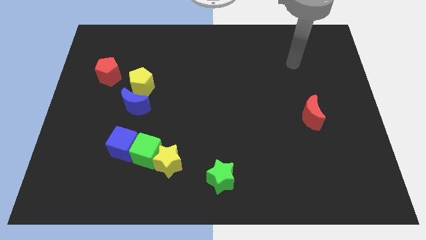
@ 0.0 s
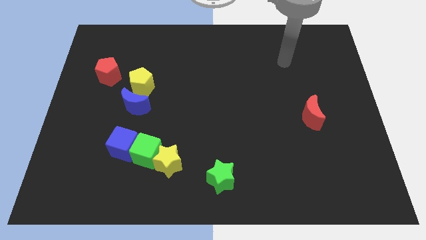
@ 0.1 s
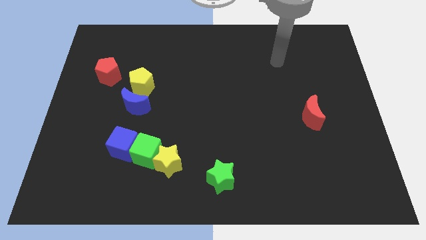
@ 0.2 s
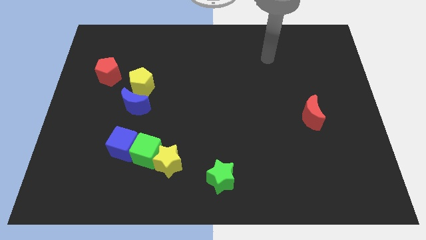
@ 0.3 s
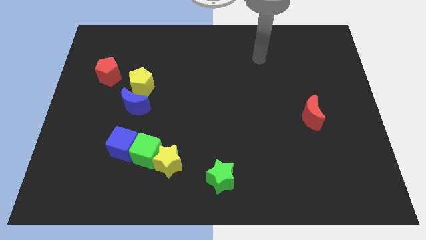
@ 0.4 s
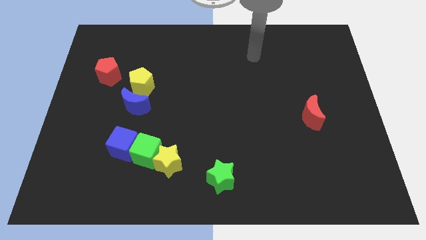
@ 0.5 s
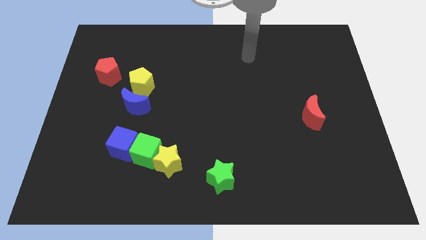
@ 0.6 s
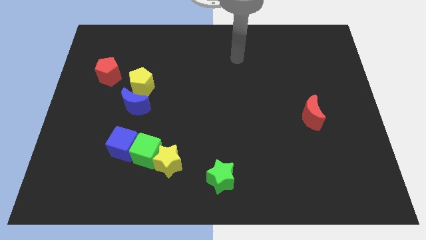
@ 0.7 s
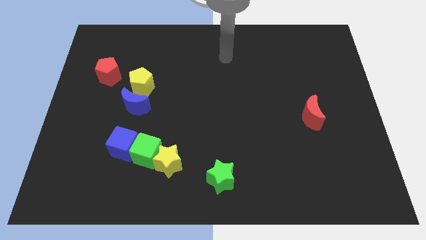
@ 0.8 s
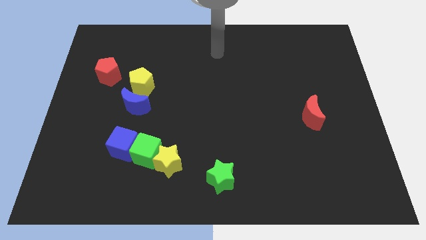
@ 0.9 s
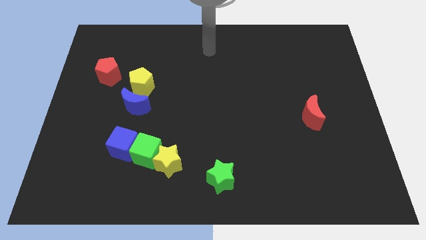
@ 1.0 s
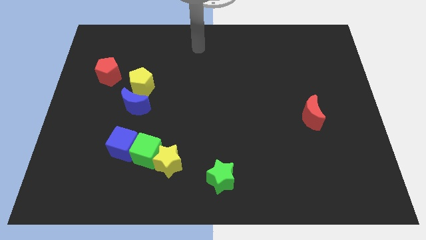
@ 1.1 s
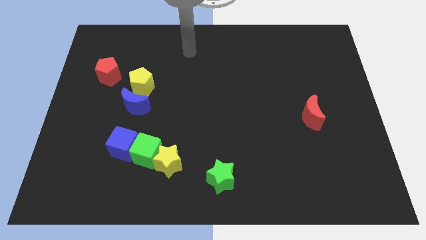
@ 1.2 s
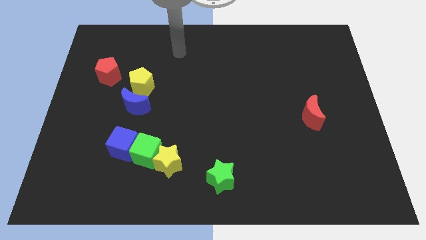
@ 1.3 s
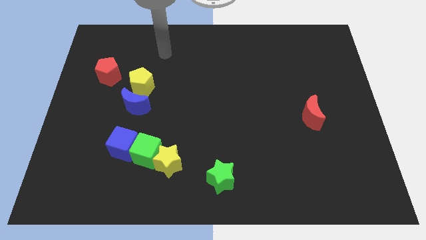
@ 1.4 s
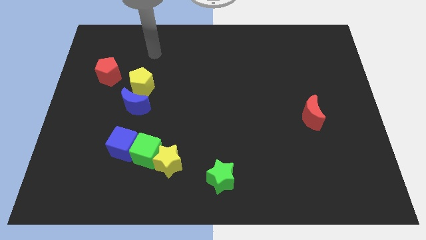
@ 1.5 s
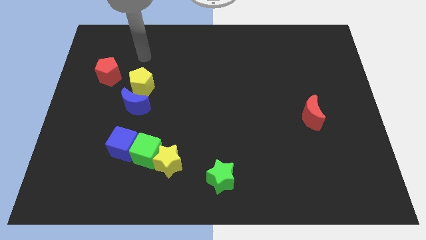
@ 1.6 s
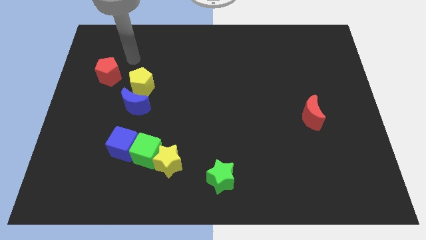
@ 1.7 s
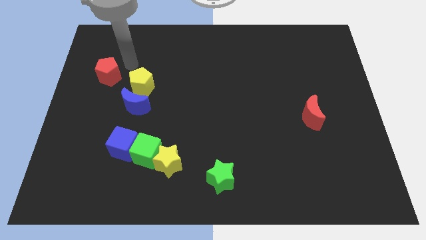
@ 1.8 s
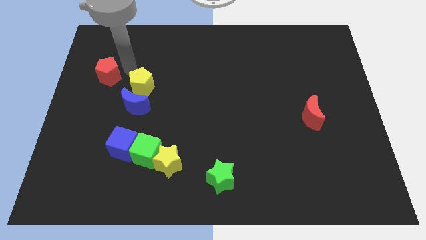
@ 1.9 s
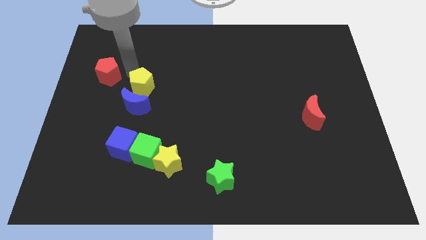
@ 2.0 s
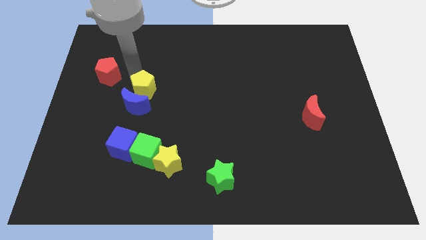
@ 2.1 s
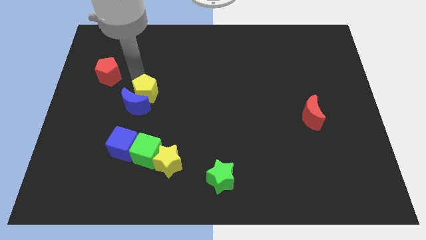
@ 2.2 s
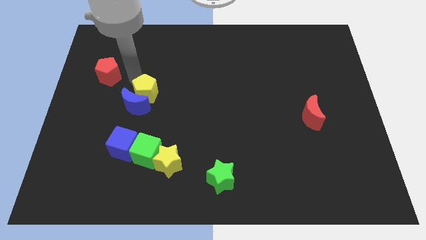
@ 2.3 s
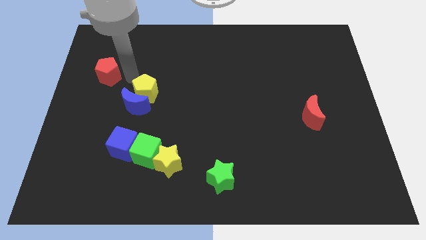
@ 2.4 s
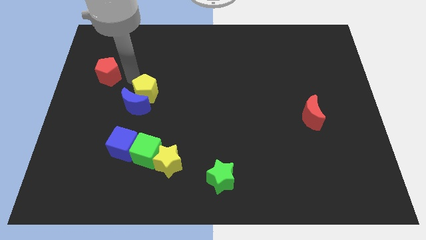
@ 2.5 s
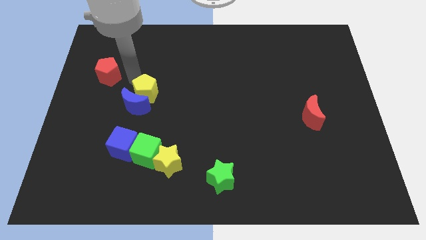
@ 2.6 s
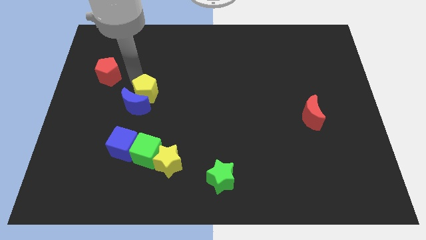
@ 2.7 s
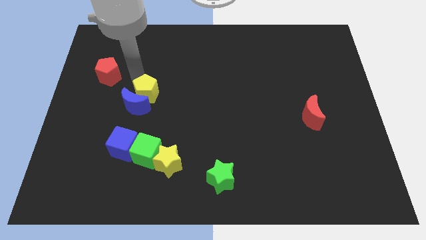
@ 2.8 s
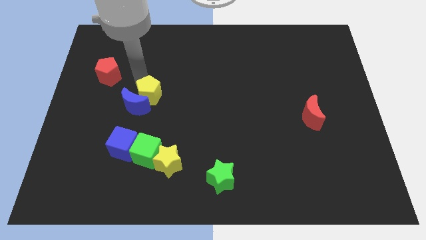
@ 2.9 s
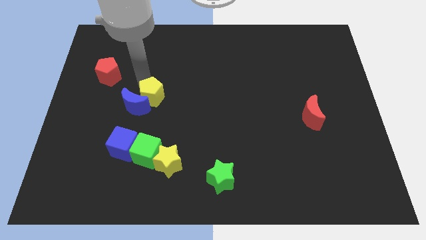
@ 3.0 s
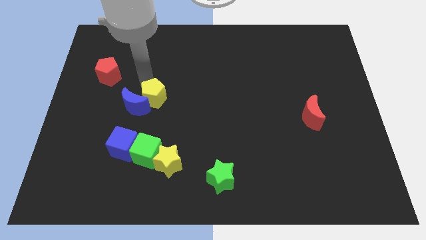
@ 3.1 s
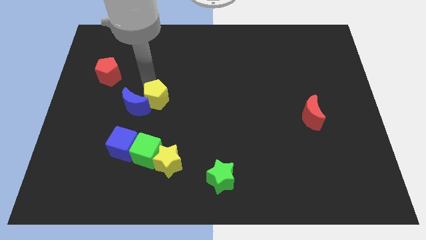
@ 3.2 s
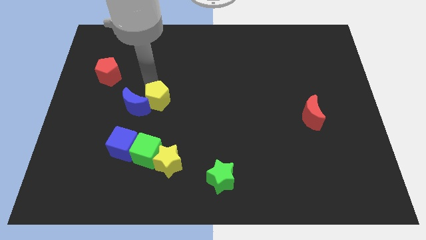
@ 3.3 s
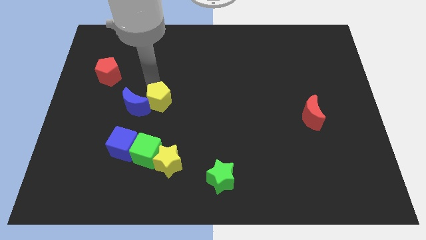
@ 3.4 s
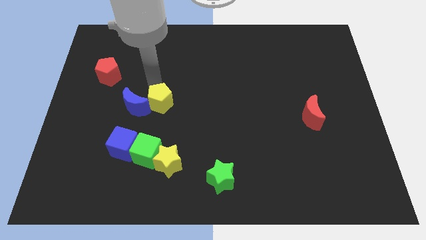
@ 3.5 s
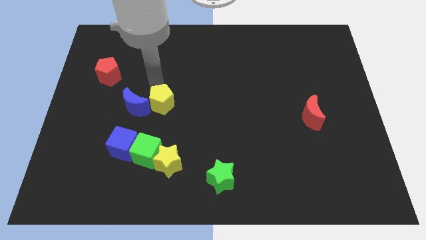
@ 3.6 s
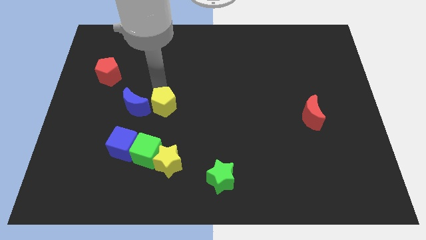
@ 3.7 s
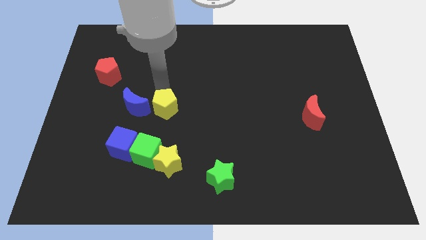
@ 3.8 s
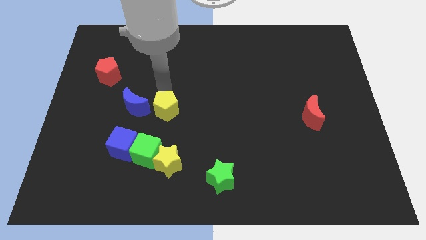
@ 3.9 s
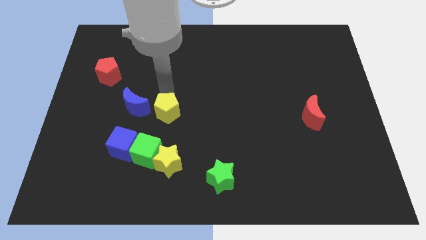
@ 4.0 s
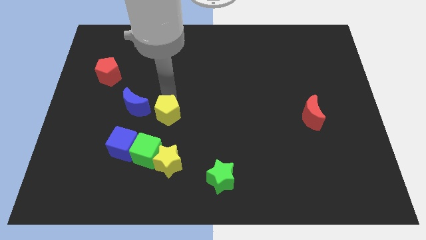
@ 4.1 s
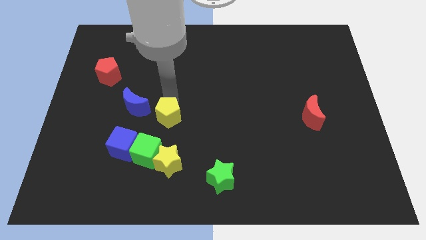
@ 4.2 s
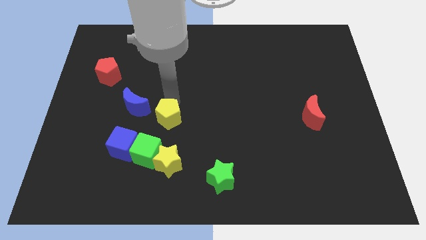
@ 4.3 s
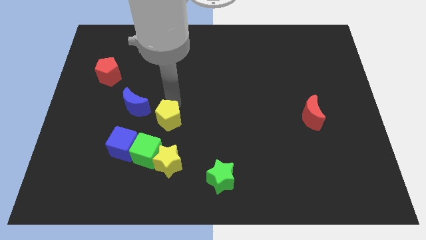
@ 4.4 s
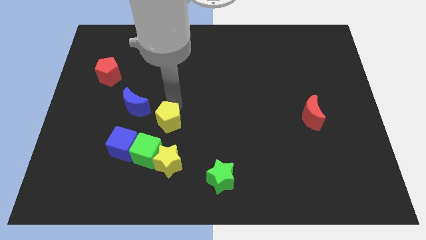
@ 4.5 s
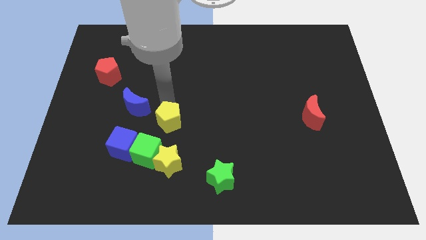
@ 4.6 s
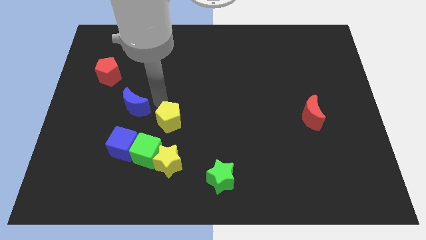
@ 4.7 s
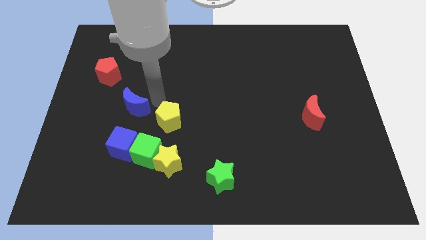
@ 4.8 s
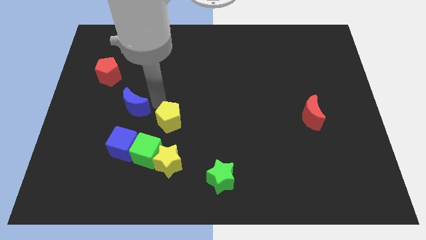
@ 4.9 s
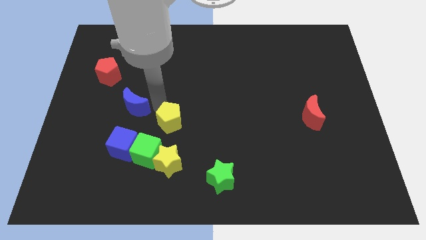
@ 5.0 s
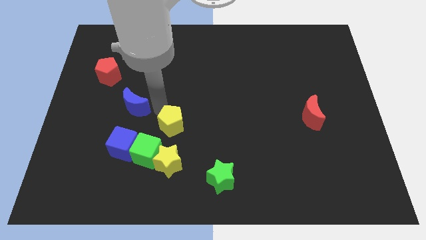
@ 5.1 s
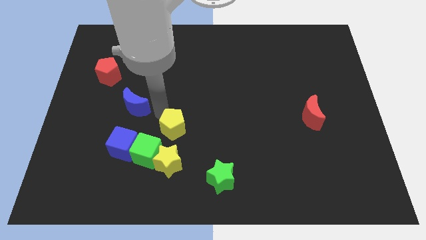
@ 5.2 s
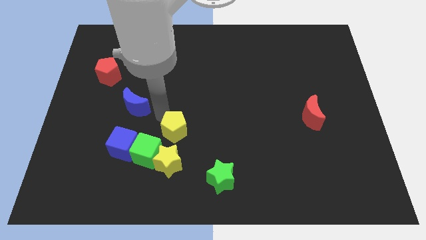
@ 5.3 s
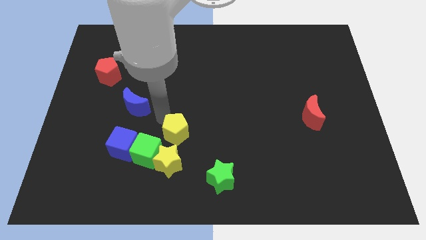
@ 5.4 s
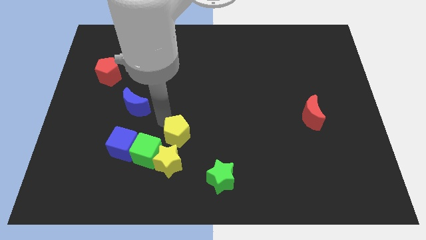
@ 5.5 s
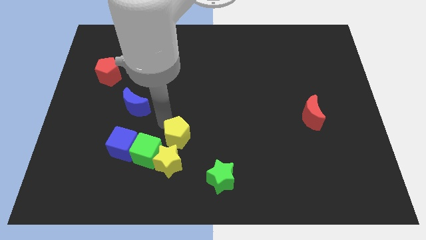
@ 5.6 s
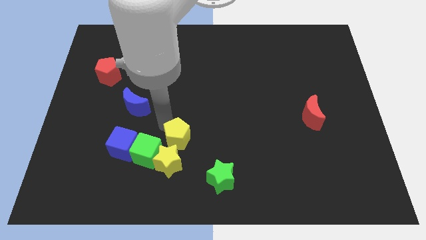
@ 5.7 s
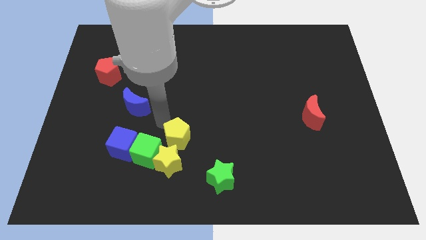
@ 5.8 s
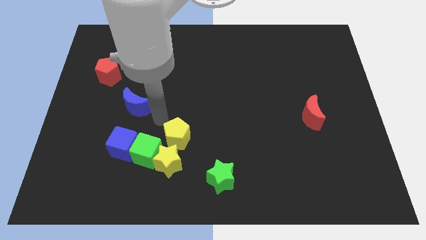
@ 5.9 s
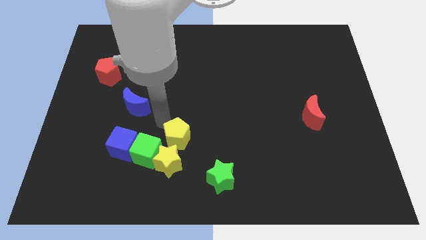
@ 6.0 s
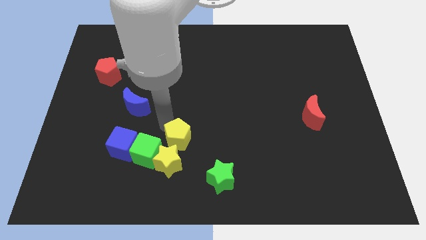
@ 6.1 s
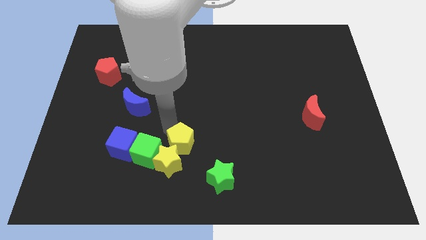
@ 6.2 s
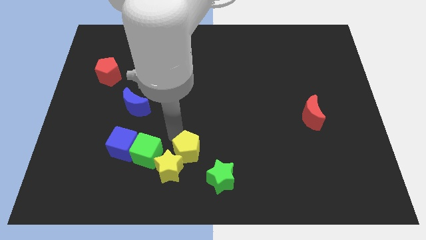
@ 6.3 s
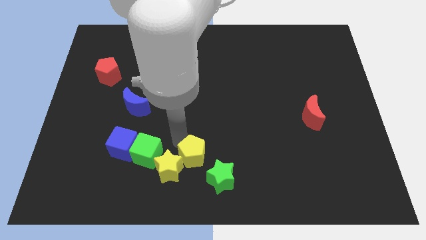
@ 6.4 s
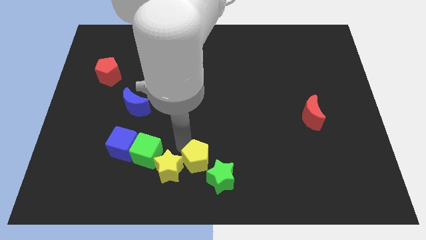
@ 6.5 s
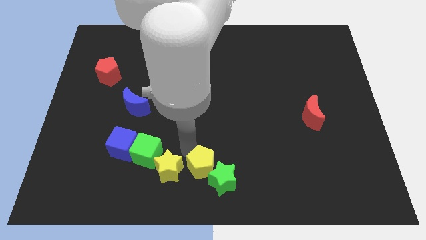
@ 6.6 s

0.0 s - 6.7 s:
move the yellow pentagon to the green star

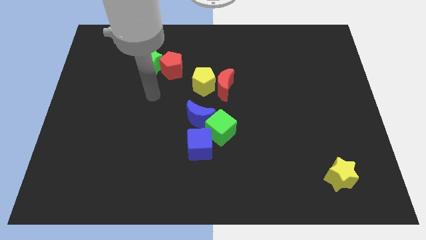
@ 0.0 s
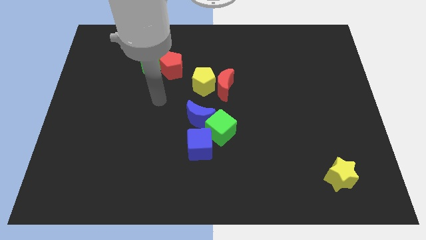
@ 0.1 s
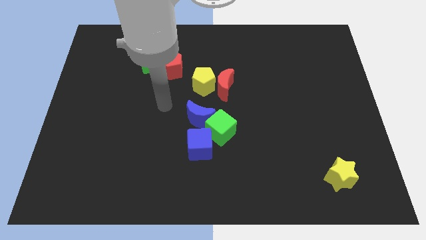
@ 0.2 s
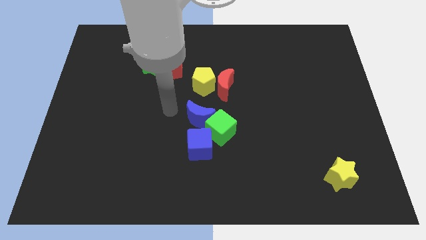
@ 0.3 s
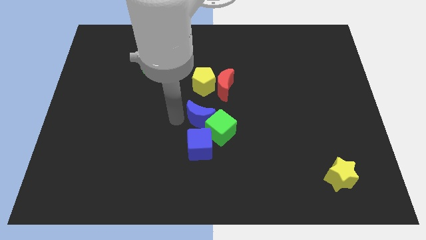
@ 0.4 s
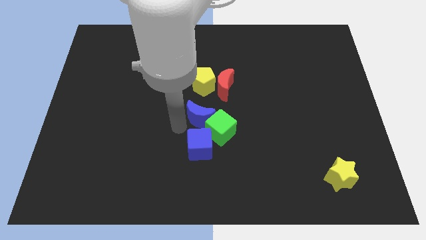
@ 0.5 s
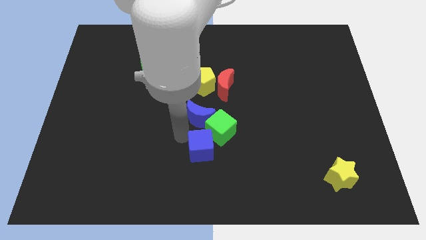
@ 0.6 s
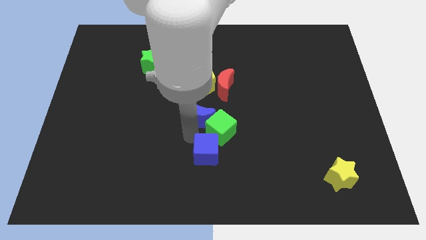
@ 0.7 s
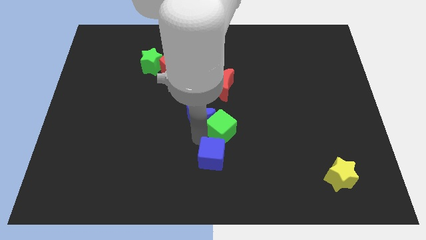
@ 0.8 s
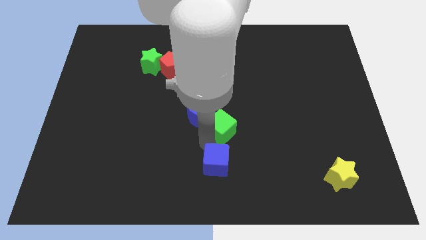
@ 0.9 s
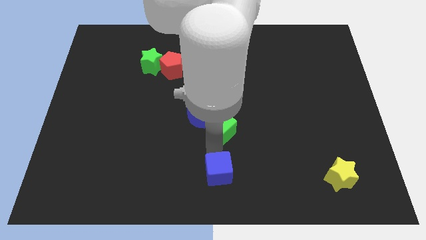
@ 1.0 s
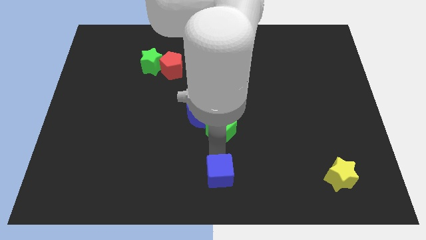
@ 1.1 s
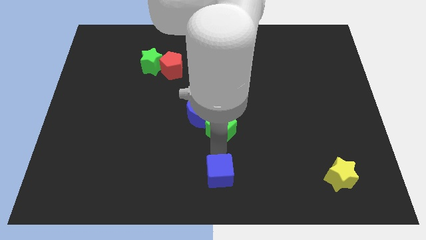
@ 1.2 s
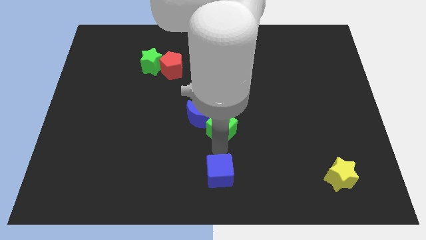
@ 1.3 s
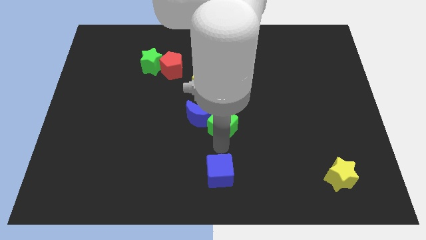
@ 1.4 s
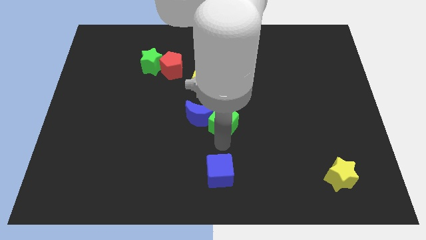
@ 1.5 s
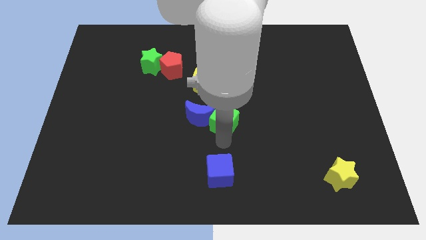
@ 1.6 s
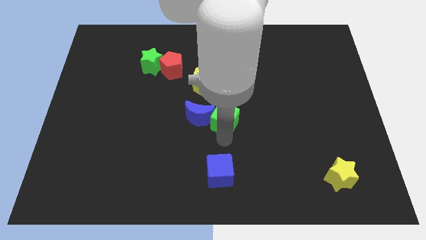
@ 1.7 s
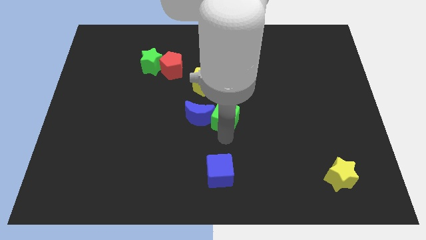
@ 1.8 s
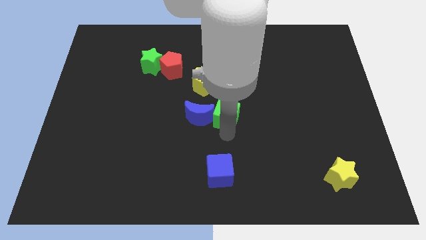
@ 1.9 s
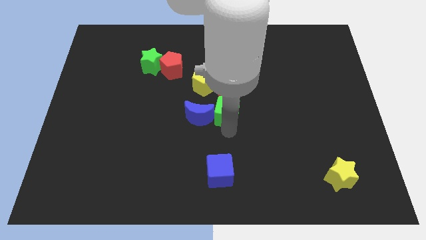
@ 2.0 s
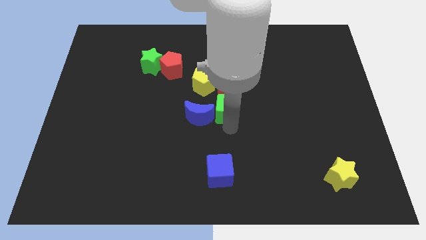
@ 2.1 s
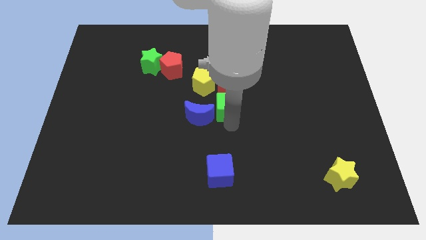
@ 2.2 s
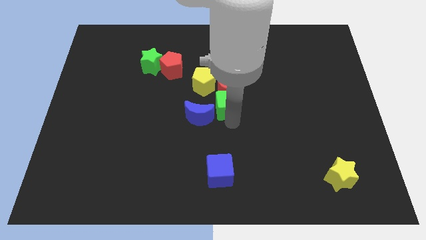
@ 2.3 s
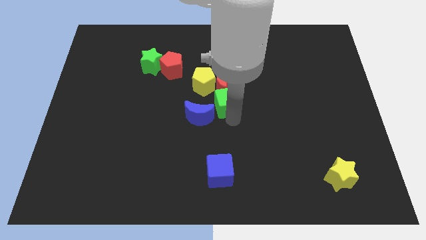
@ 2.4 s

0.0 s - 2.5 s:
move the green cube to the red moon
